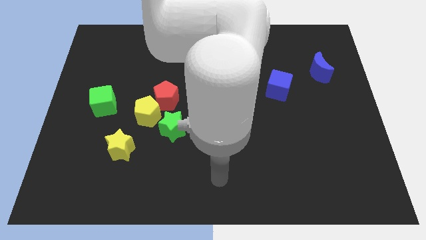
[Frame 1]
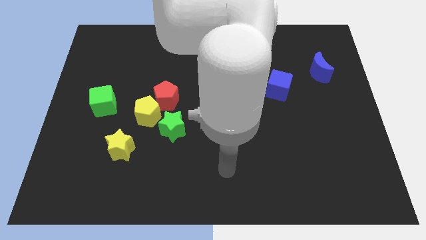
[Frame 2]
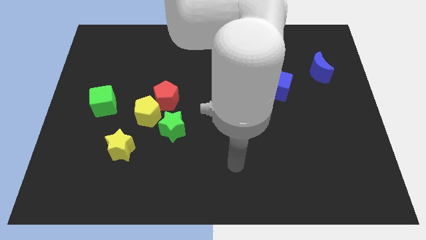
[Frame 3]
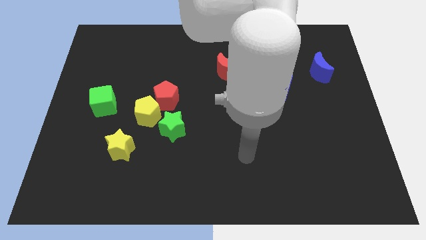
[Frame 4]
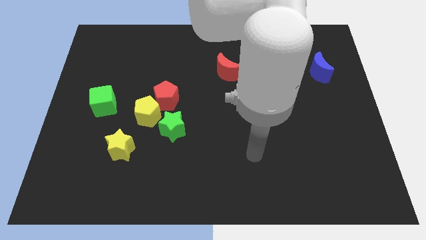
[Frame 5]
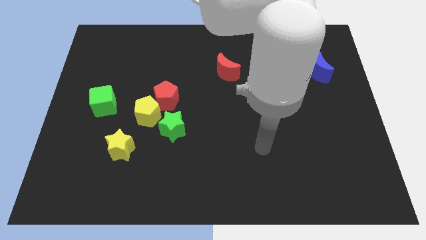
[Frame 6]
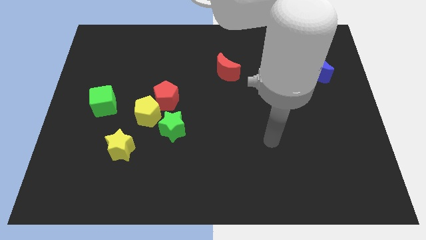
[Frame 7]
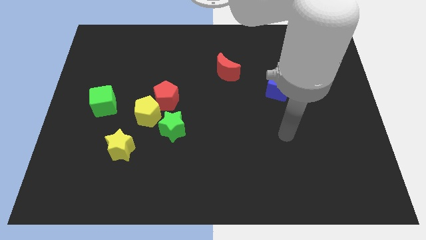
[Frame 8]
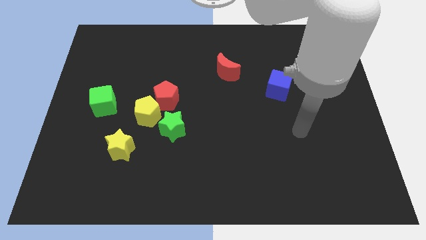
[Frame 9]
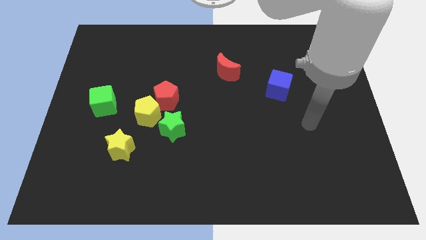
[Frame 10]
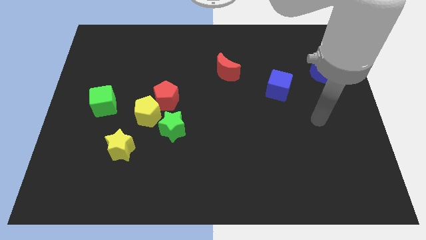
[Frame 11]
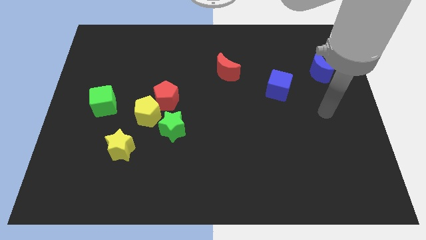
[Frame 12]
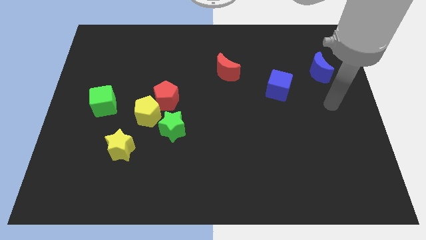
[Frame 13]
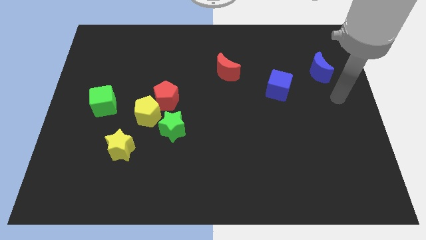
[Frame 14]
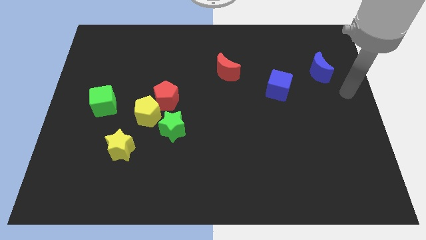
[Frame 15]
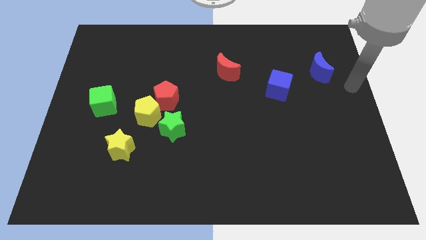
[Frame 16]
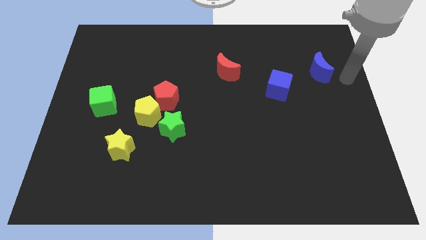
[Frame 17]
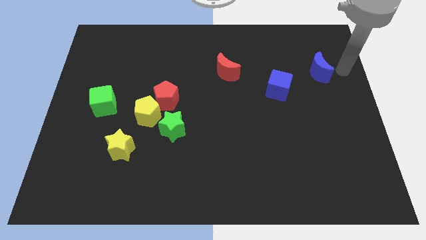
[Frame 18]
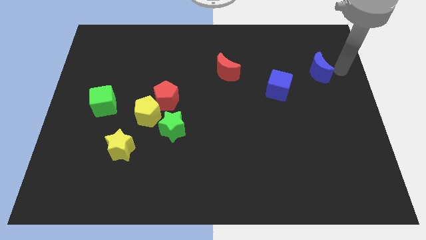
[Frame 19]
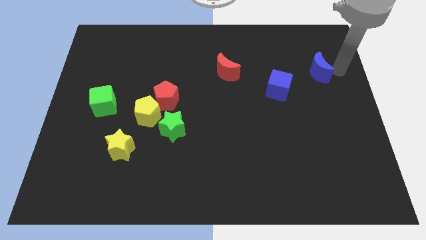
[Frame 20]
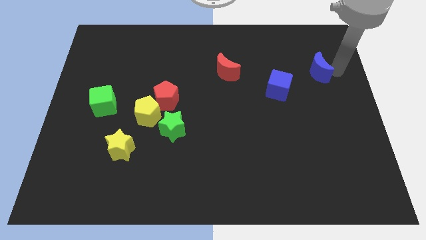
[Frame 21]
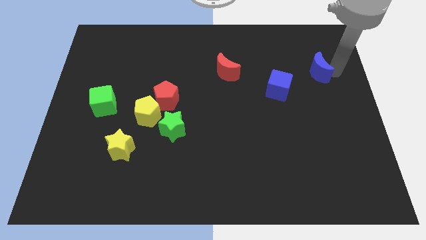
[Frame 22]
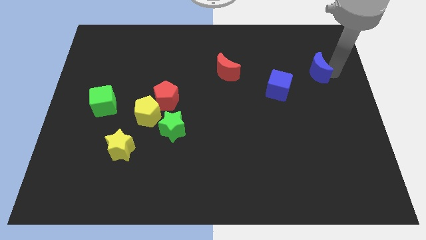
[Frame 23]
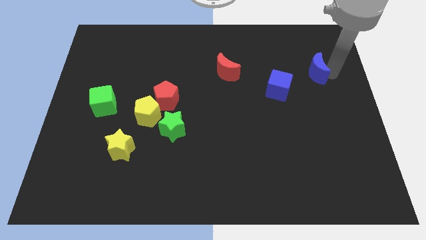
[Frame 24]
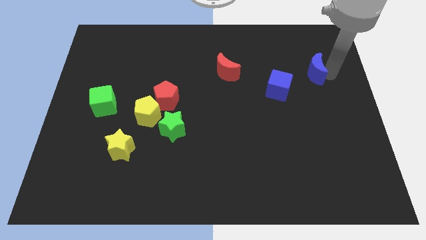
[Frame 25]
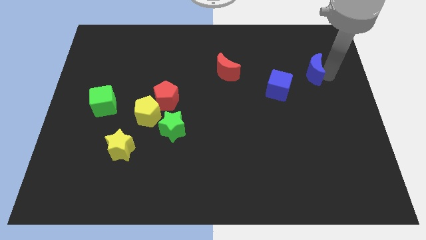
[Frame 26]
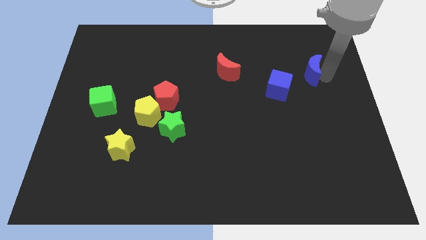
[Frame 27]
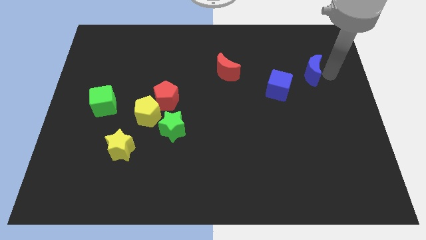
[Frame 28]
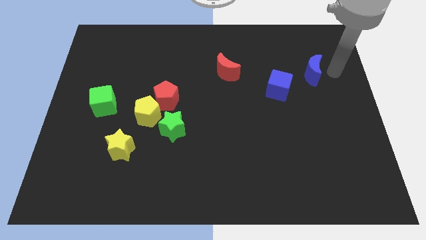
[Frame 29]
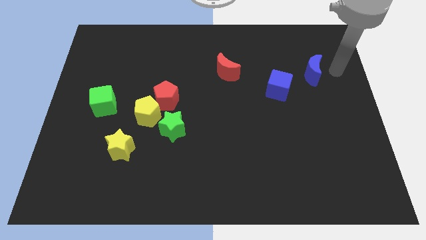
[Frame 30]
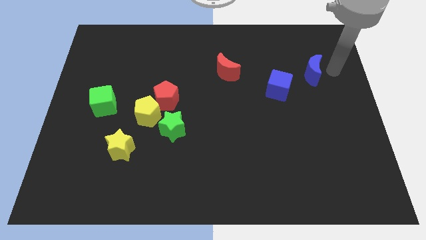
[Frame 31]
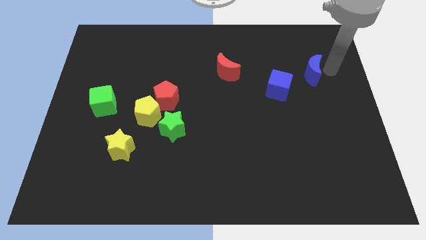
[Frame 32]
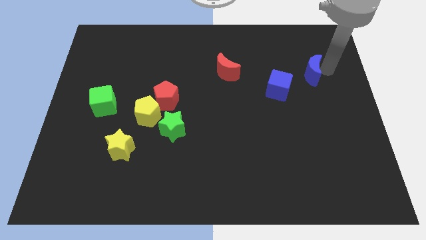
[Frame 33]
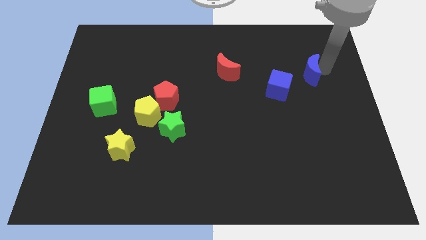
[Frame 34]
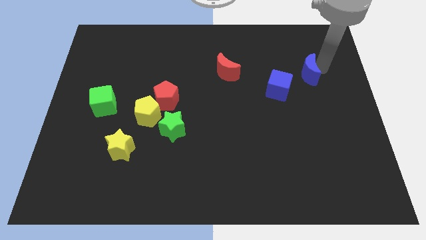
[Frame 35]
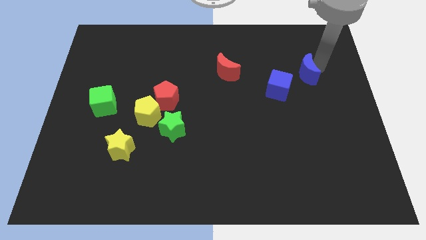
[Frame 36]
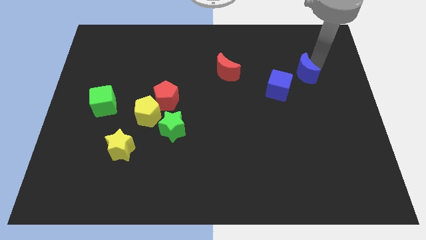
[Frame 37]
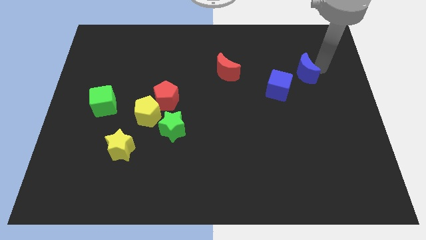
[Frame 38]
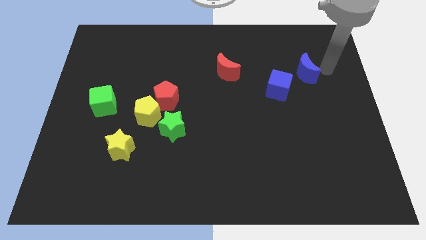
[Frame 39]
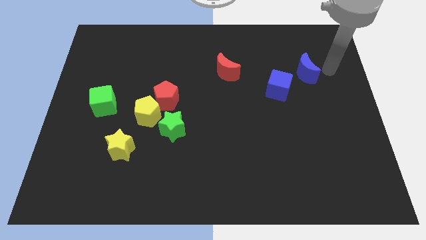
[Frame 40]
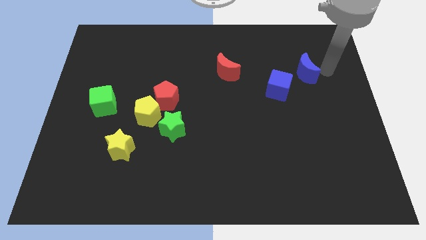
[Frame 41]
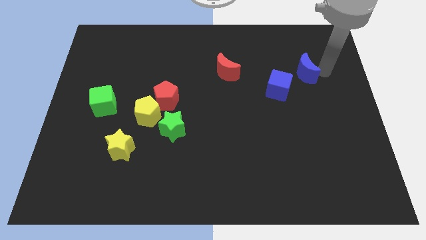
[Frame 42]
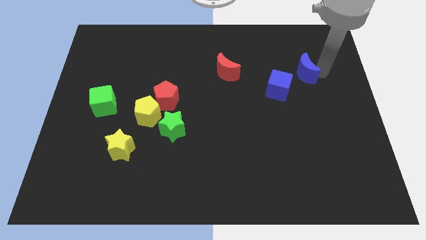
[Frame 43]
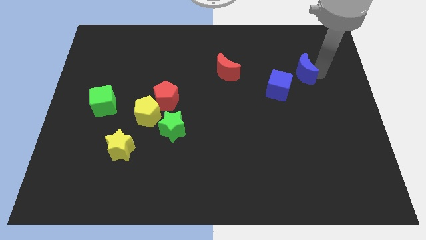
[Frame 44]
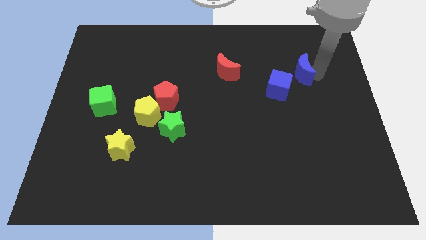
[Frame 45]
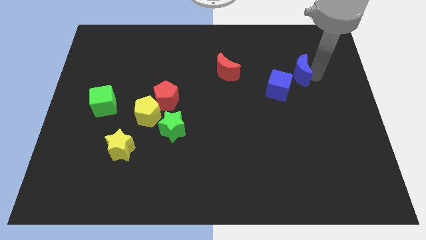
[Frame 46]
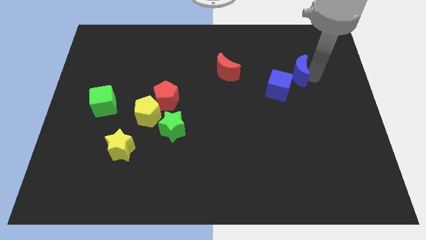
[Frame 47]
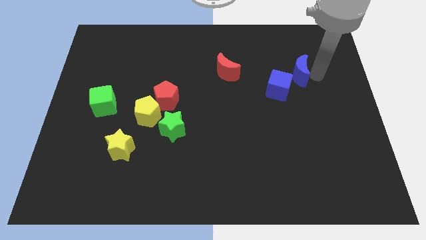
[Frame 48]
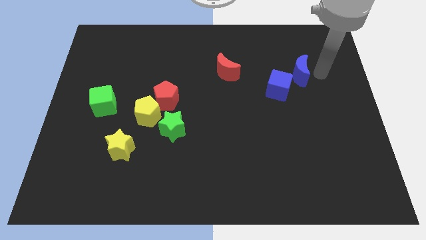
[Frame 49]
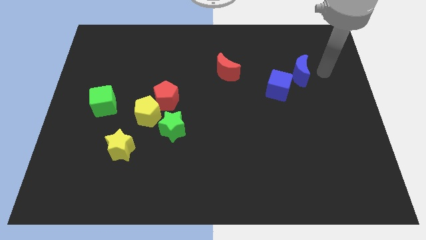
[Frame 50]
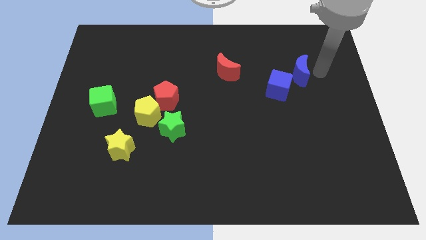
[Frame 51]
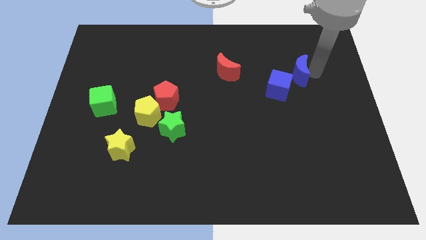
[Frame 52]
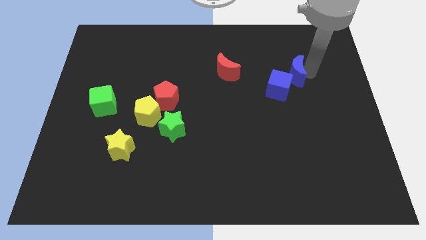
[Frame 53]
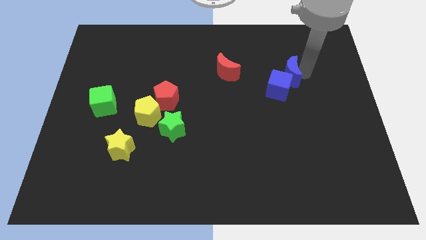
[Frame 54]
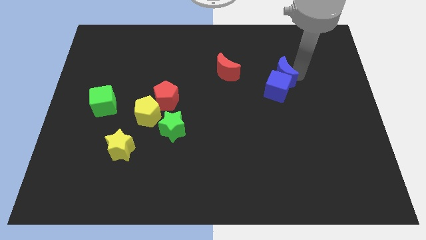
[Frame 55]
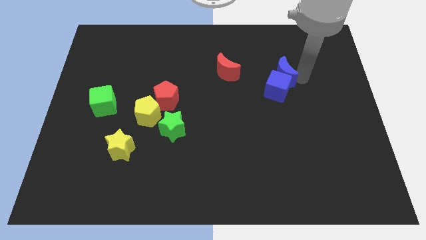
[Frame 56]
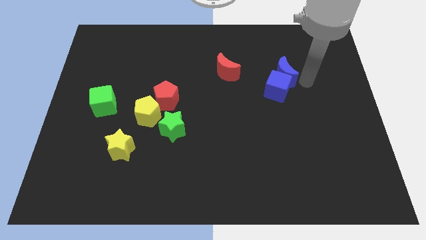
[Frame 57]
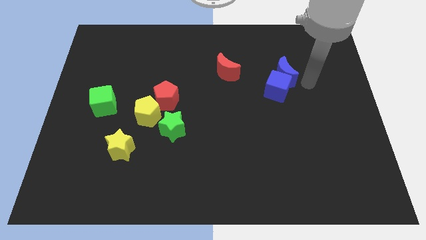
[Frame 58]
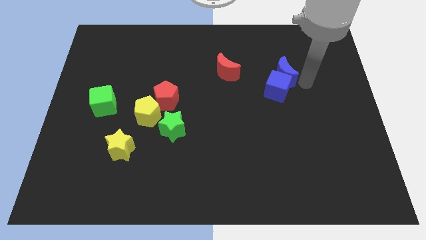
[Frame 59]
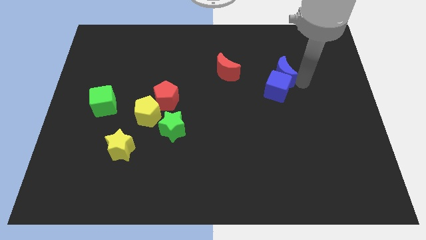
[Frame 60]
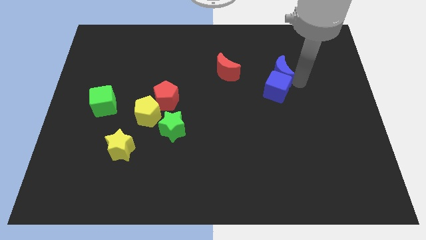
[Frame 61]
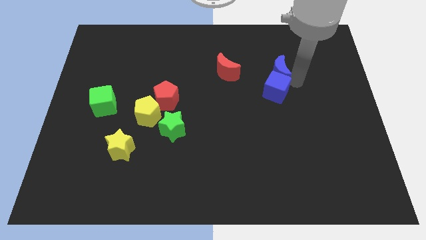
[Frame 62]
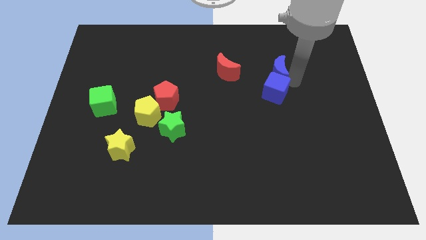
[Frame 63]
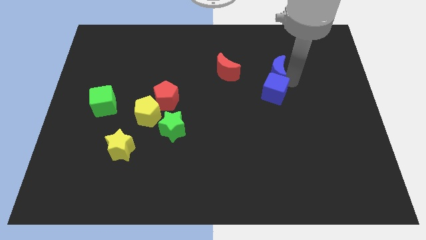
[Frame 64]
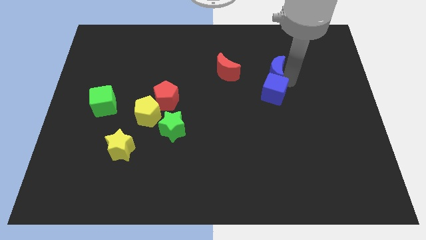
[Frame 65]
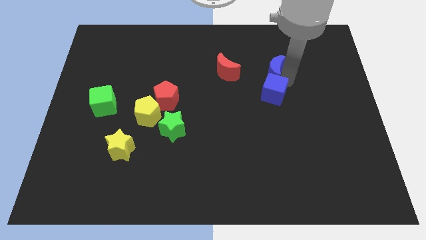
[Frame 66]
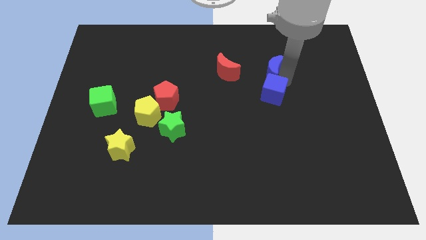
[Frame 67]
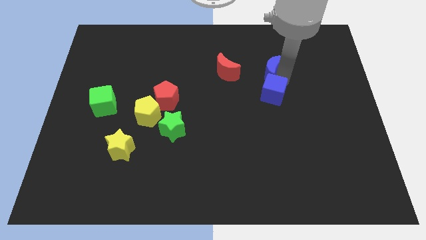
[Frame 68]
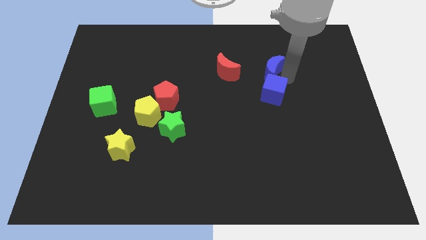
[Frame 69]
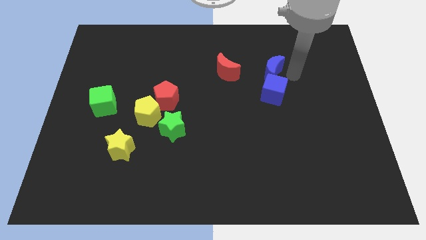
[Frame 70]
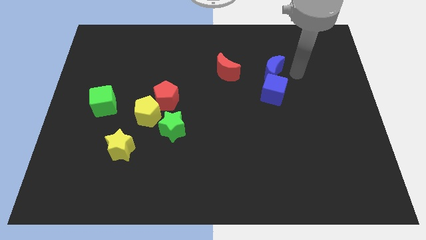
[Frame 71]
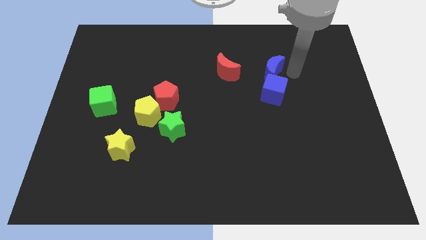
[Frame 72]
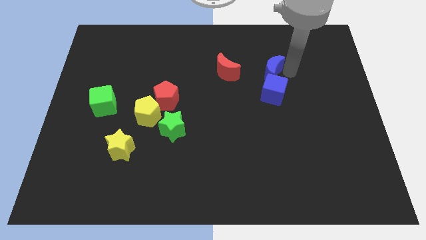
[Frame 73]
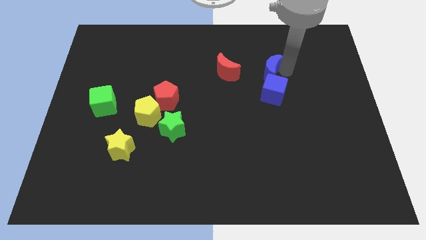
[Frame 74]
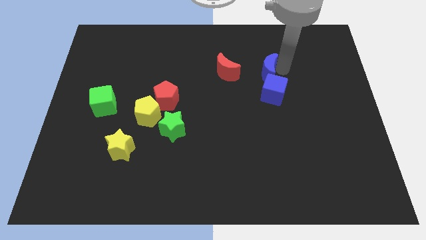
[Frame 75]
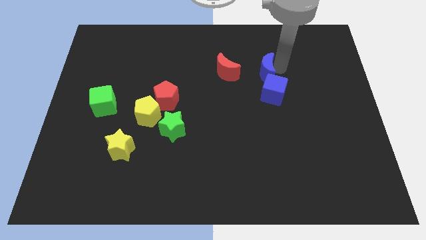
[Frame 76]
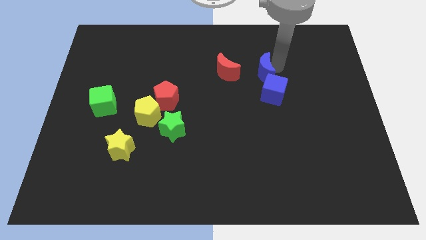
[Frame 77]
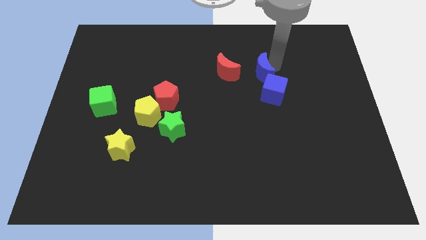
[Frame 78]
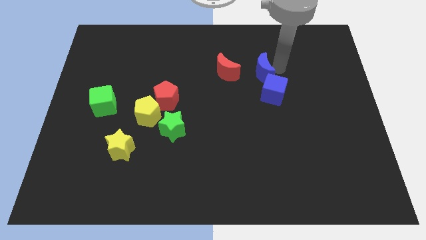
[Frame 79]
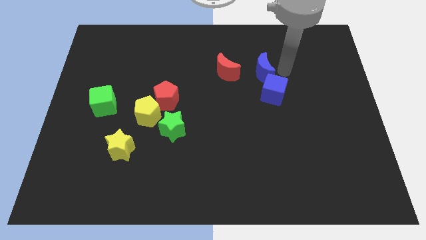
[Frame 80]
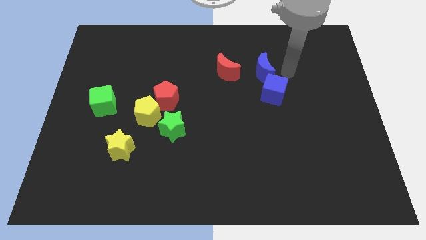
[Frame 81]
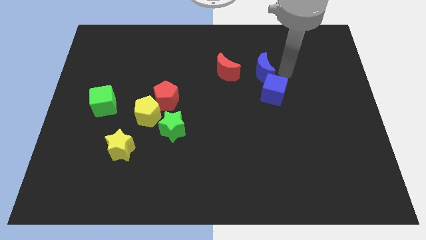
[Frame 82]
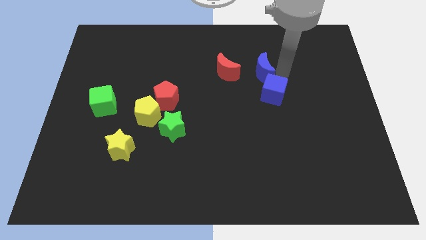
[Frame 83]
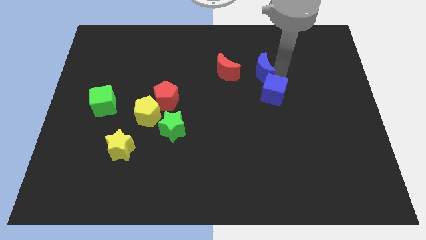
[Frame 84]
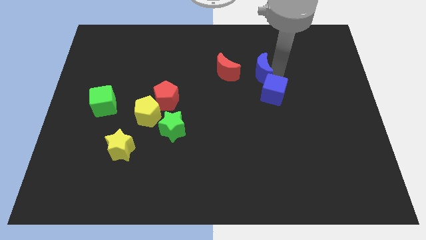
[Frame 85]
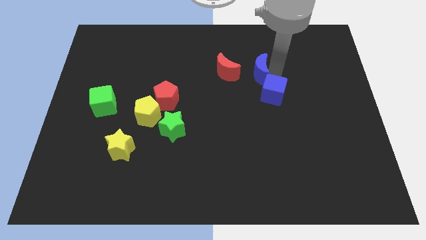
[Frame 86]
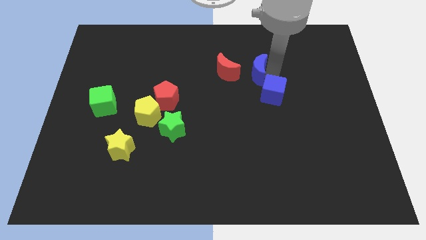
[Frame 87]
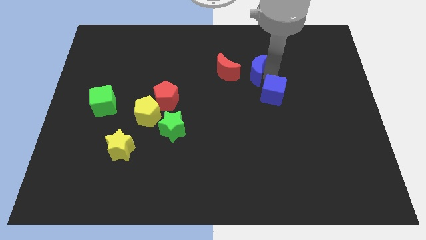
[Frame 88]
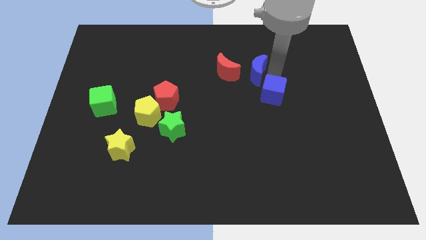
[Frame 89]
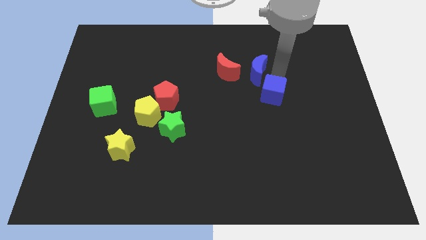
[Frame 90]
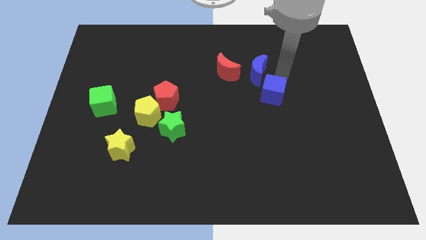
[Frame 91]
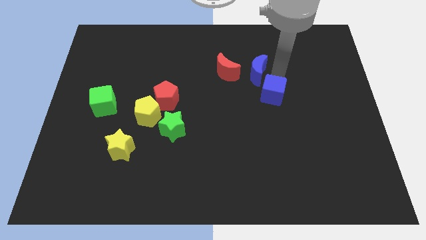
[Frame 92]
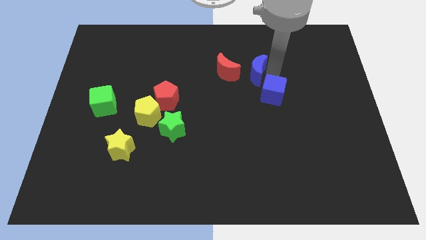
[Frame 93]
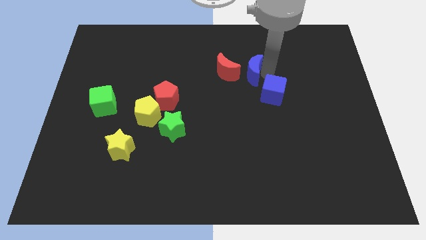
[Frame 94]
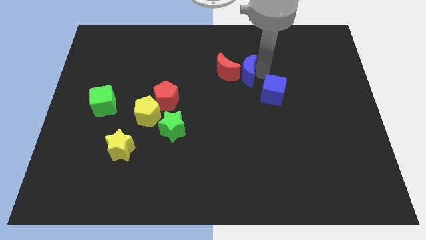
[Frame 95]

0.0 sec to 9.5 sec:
slide the blue moon next to the red moon
